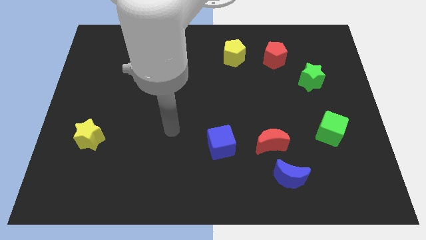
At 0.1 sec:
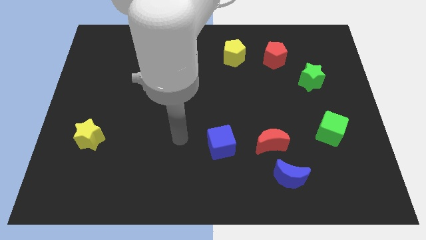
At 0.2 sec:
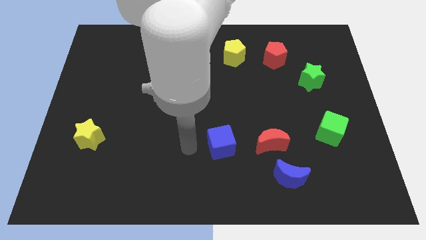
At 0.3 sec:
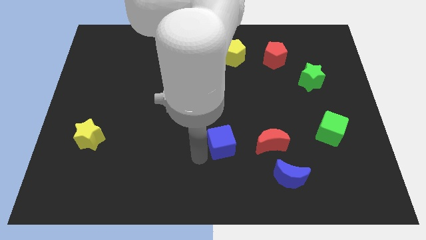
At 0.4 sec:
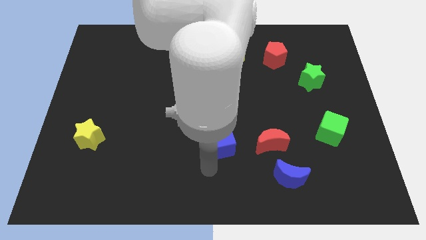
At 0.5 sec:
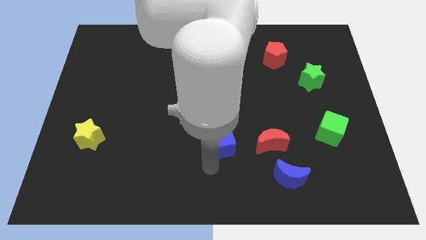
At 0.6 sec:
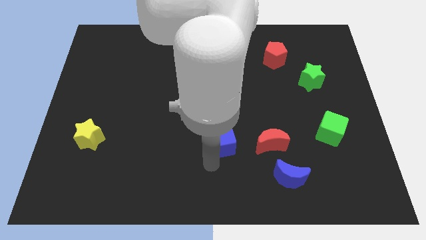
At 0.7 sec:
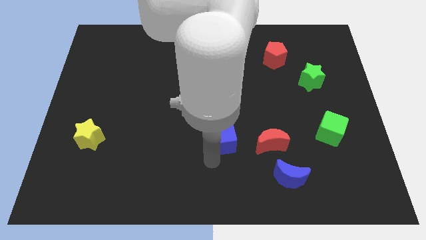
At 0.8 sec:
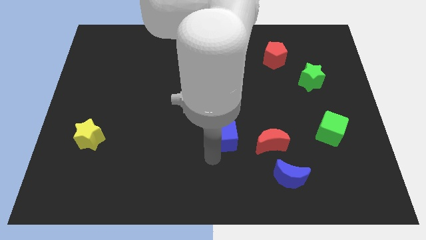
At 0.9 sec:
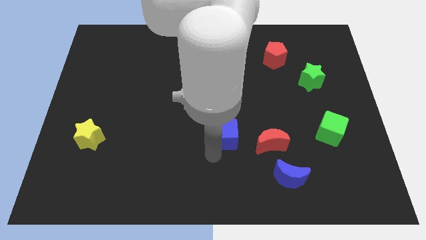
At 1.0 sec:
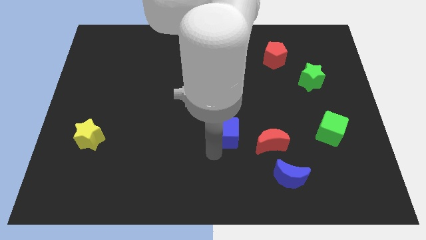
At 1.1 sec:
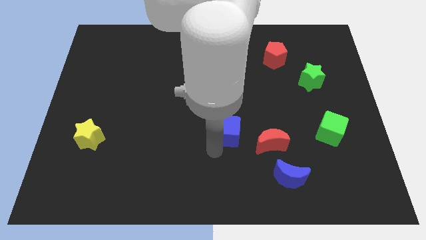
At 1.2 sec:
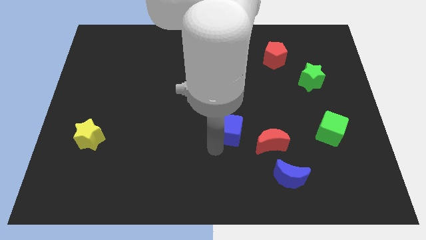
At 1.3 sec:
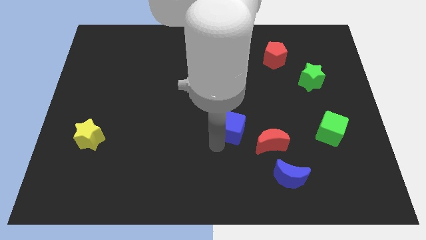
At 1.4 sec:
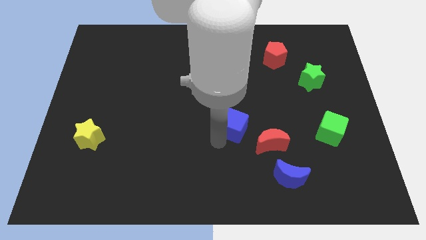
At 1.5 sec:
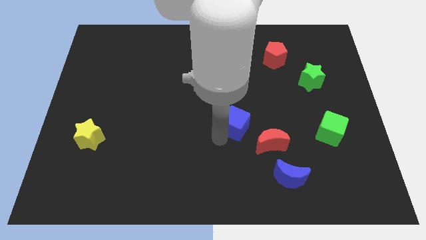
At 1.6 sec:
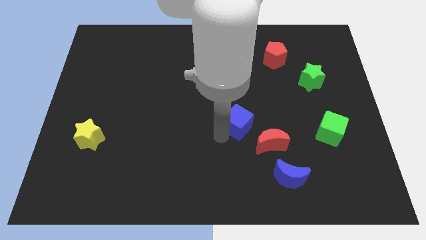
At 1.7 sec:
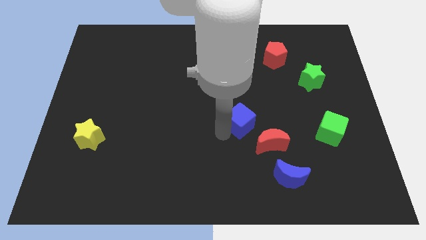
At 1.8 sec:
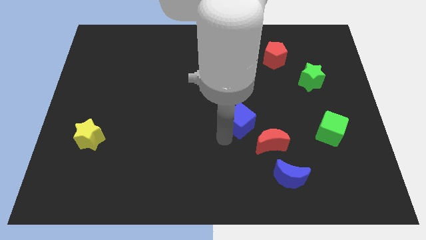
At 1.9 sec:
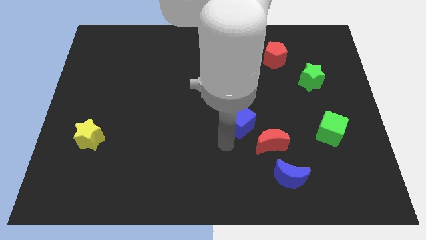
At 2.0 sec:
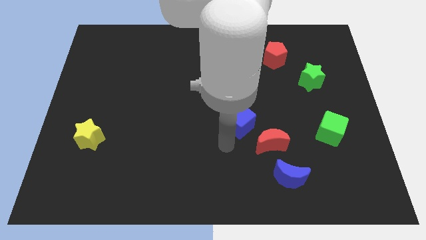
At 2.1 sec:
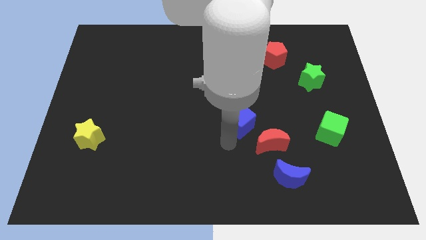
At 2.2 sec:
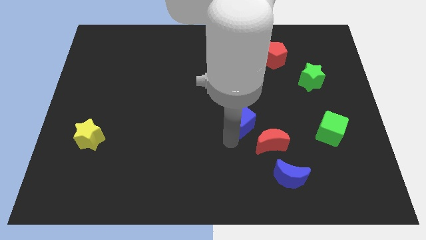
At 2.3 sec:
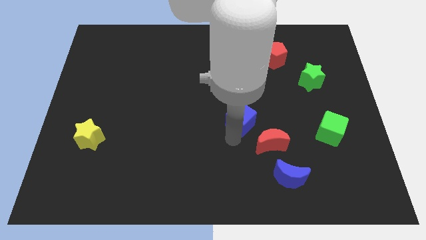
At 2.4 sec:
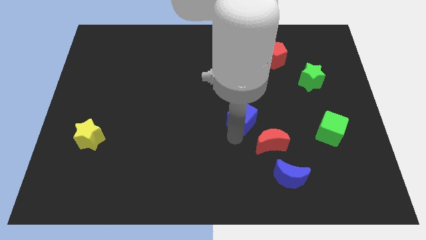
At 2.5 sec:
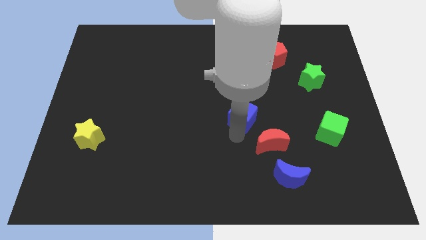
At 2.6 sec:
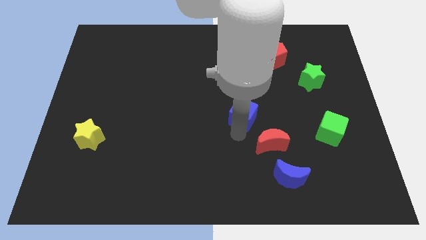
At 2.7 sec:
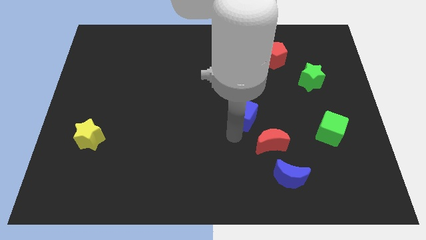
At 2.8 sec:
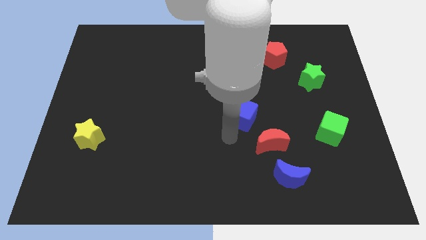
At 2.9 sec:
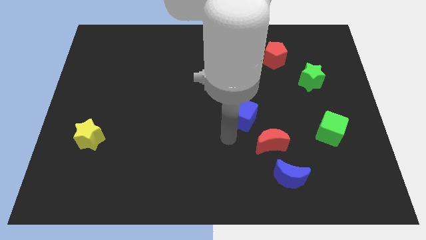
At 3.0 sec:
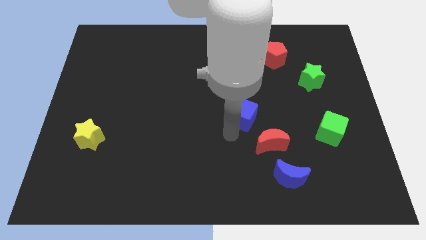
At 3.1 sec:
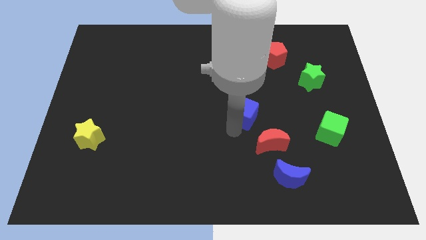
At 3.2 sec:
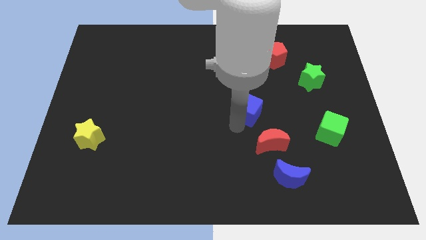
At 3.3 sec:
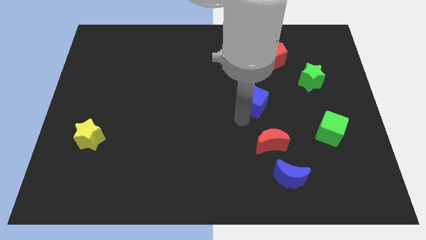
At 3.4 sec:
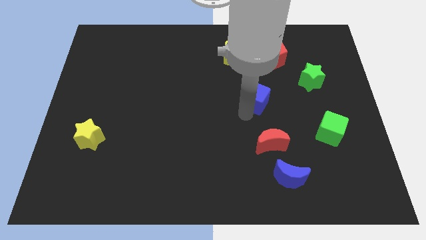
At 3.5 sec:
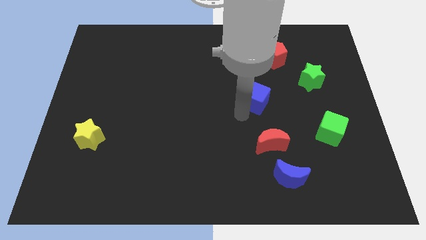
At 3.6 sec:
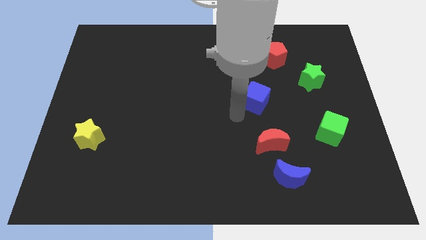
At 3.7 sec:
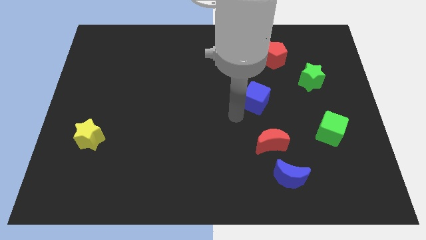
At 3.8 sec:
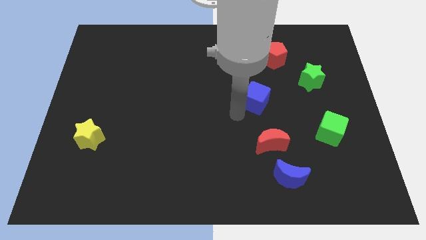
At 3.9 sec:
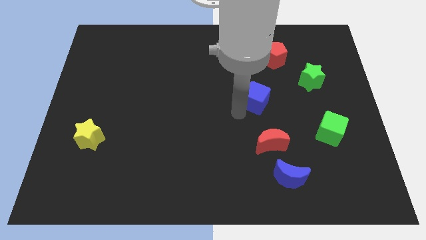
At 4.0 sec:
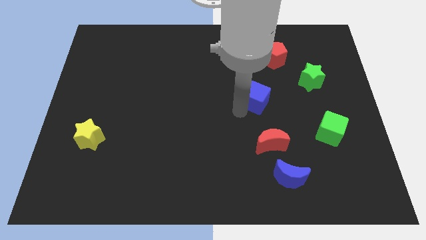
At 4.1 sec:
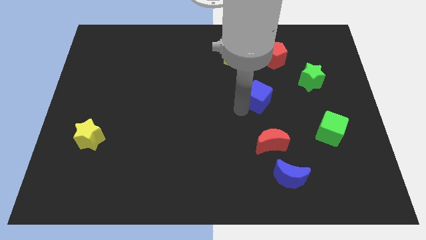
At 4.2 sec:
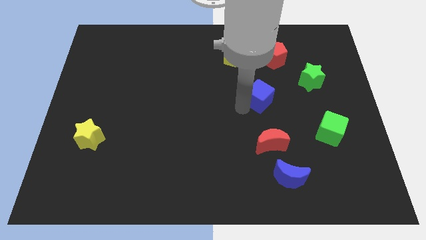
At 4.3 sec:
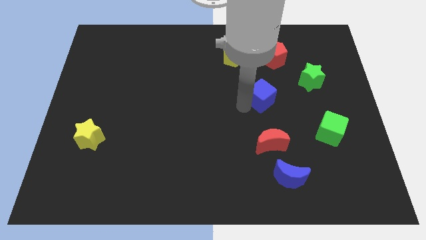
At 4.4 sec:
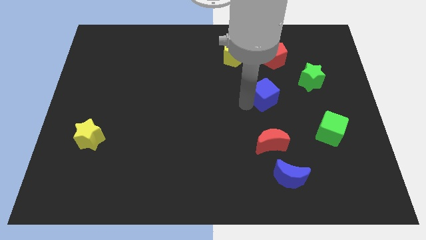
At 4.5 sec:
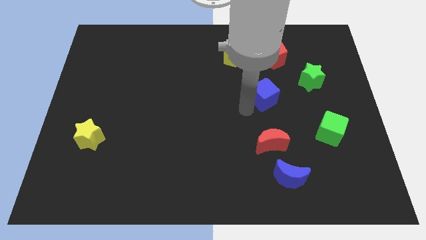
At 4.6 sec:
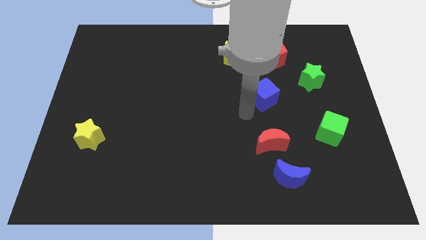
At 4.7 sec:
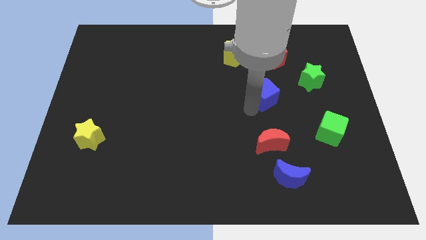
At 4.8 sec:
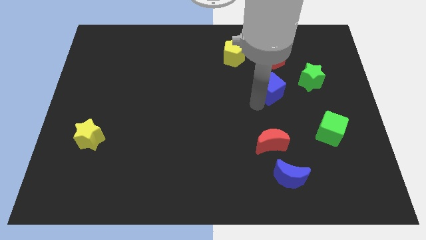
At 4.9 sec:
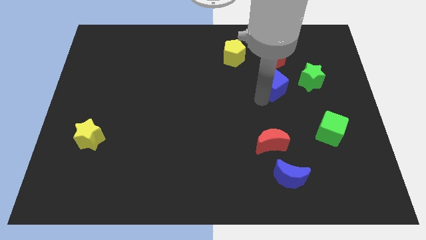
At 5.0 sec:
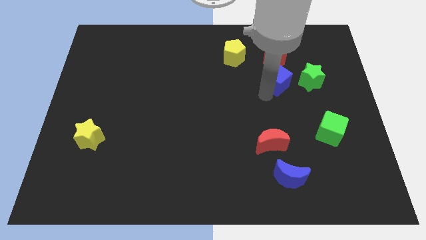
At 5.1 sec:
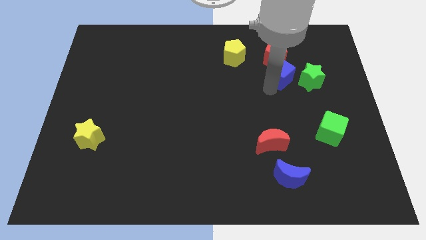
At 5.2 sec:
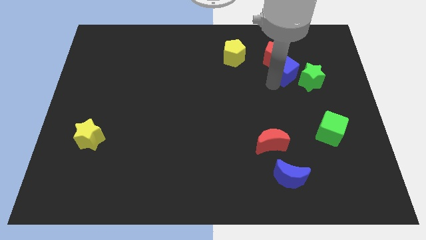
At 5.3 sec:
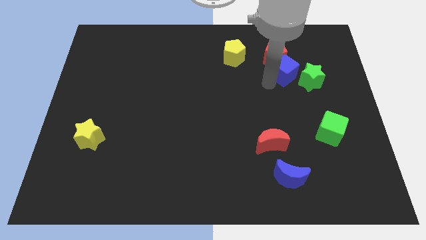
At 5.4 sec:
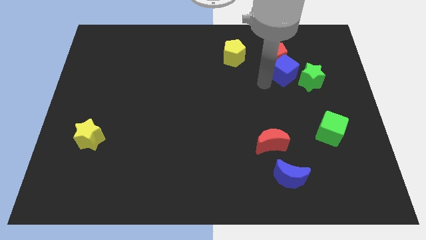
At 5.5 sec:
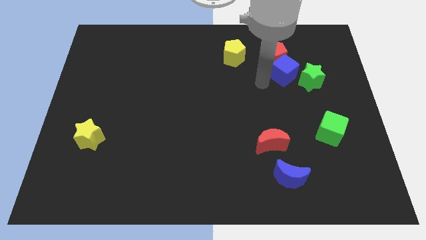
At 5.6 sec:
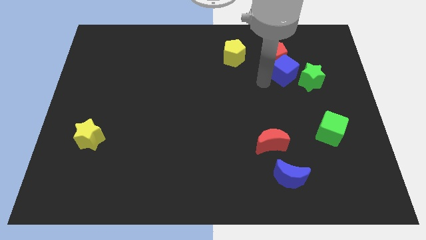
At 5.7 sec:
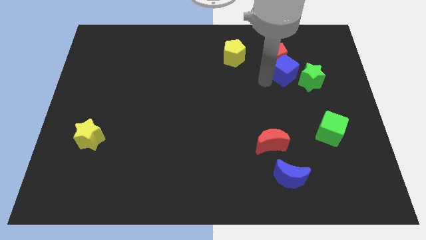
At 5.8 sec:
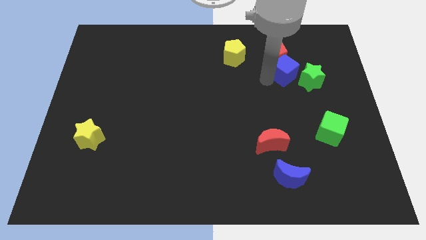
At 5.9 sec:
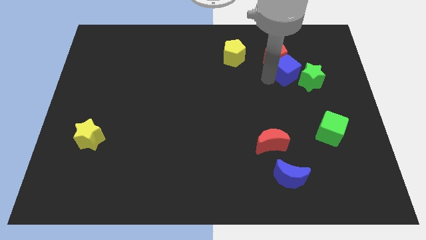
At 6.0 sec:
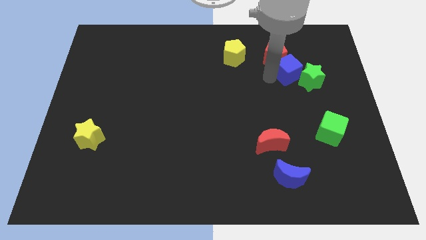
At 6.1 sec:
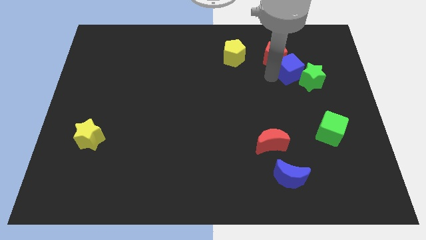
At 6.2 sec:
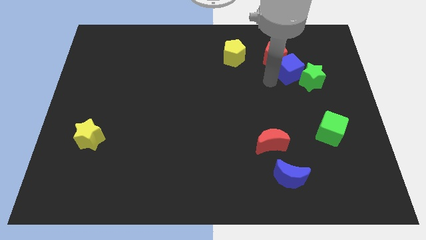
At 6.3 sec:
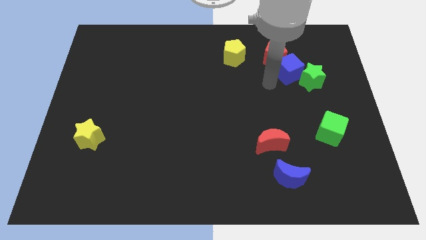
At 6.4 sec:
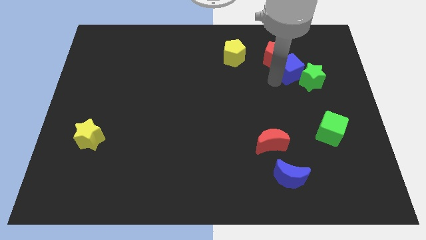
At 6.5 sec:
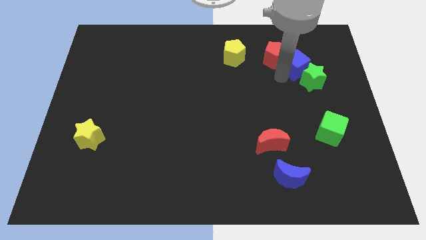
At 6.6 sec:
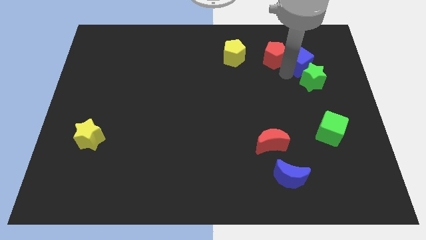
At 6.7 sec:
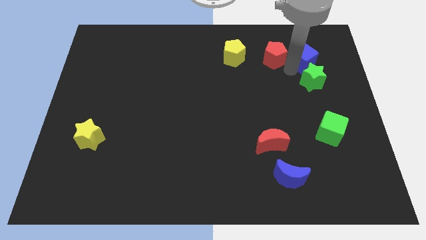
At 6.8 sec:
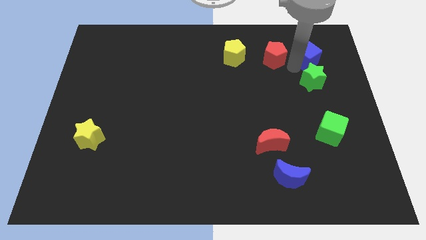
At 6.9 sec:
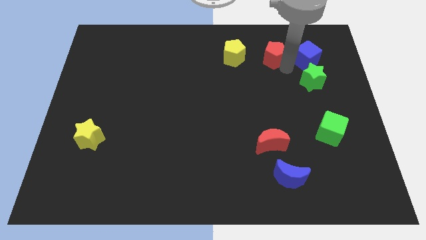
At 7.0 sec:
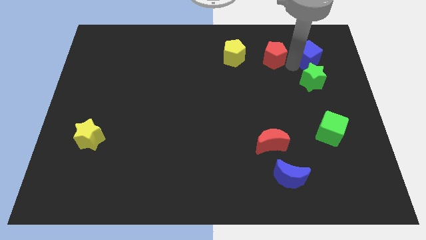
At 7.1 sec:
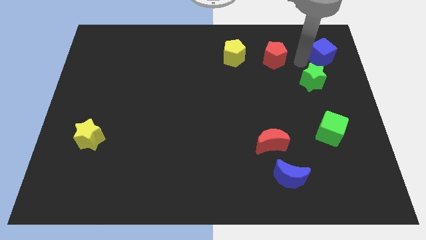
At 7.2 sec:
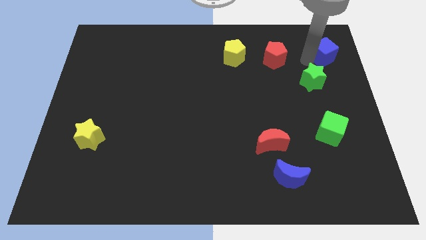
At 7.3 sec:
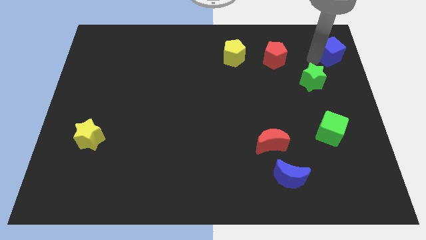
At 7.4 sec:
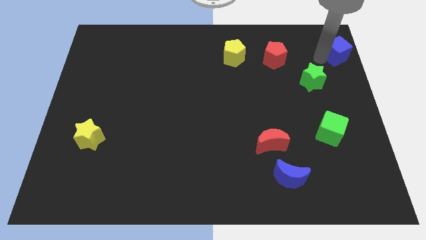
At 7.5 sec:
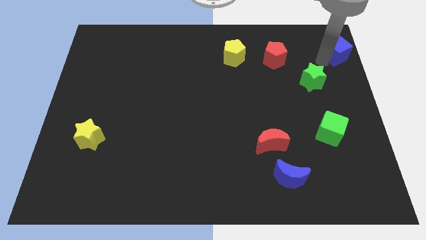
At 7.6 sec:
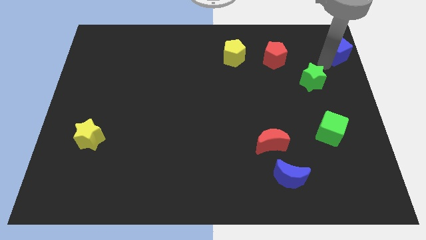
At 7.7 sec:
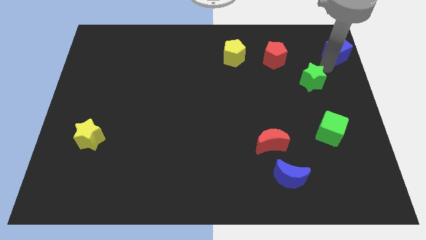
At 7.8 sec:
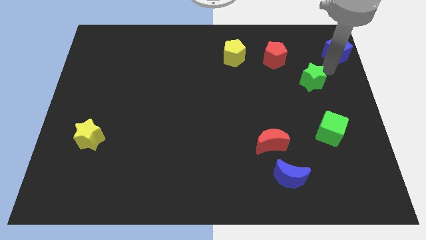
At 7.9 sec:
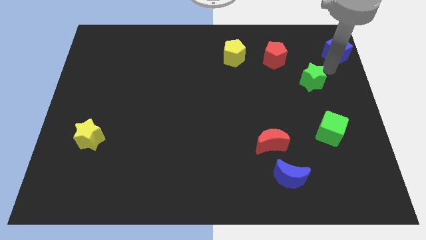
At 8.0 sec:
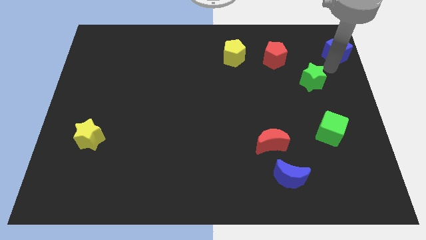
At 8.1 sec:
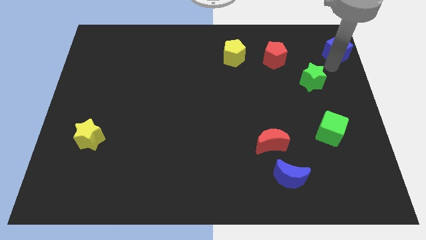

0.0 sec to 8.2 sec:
move the blue cube to the top right of the board
